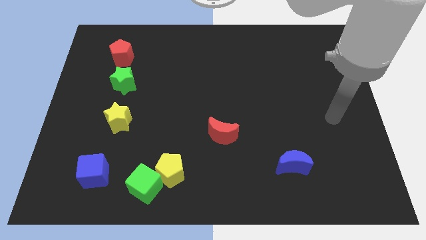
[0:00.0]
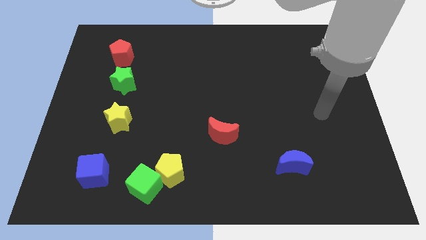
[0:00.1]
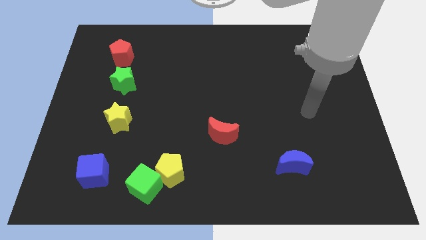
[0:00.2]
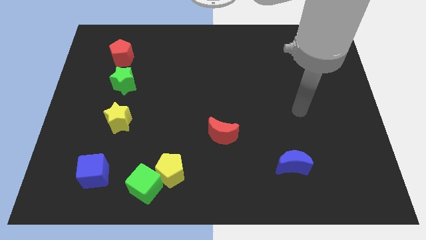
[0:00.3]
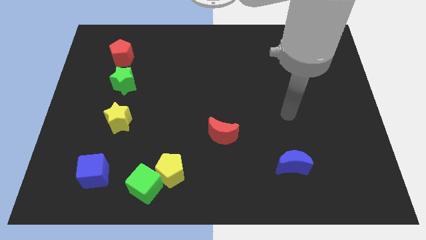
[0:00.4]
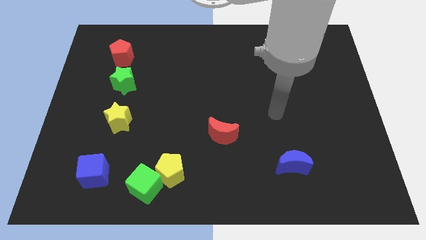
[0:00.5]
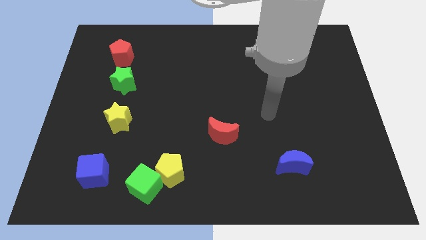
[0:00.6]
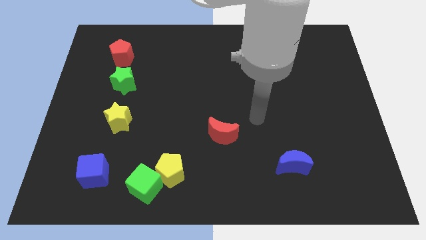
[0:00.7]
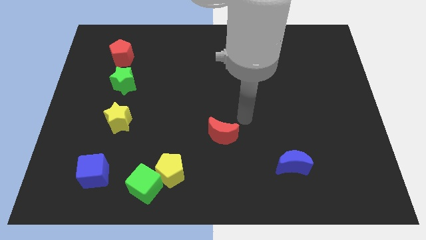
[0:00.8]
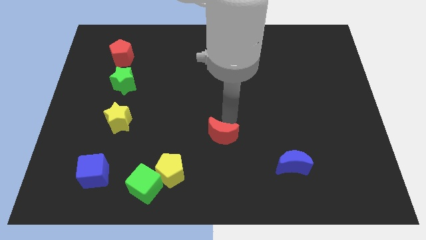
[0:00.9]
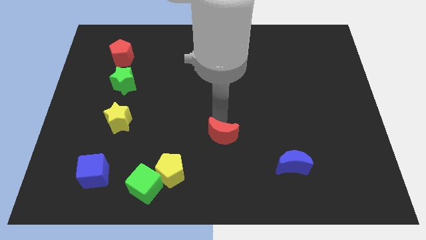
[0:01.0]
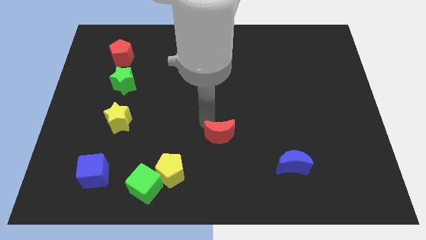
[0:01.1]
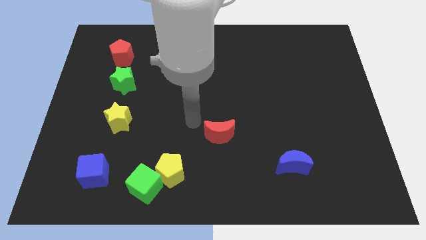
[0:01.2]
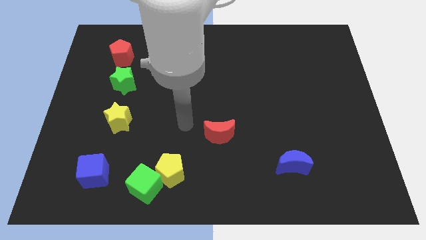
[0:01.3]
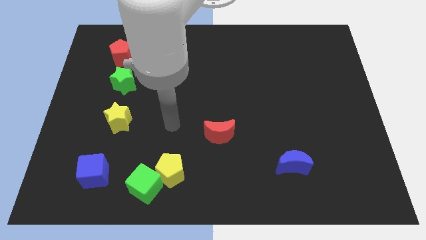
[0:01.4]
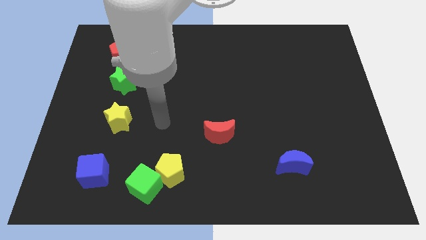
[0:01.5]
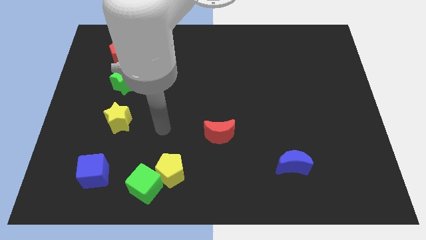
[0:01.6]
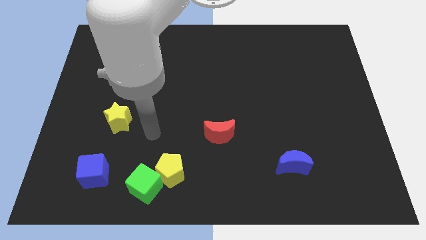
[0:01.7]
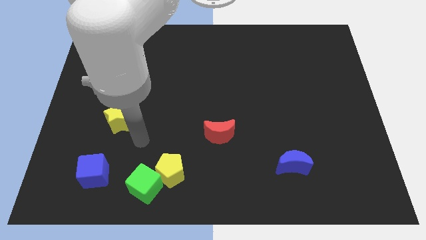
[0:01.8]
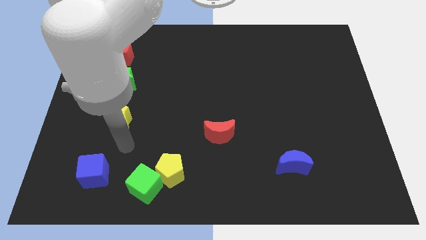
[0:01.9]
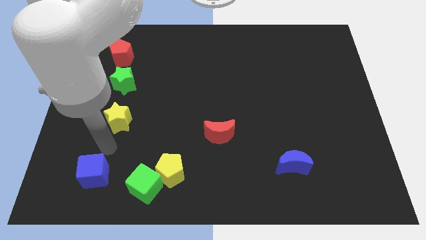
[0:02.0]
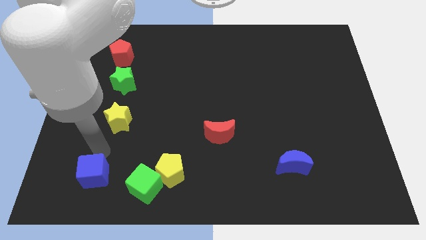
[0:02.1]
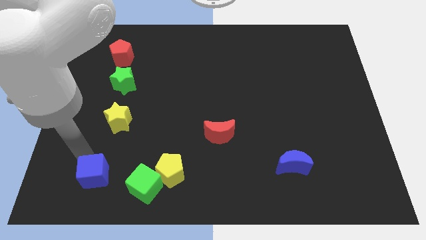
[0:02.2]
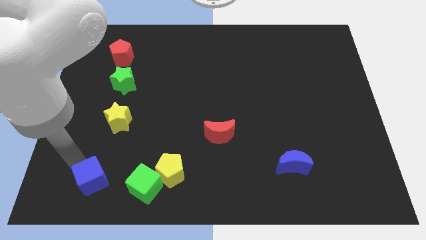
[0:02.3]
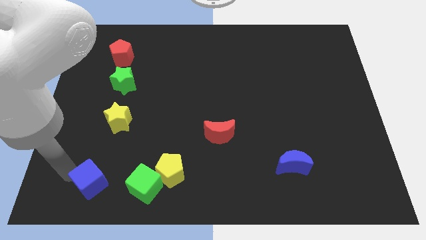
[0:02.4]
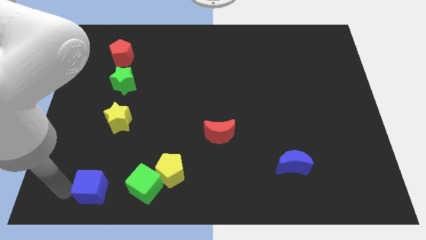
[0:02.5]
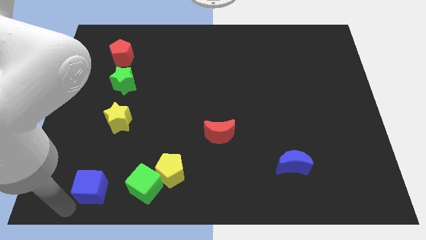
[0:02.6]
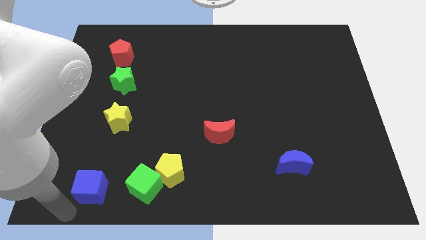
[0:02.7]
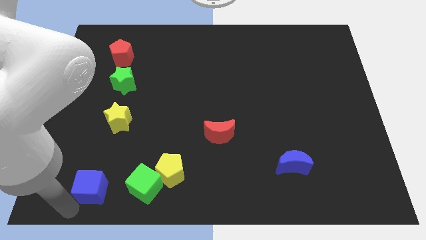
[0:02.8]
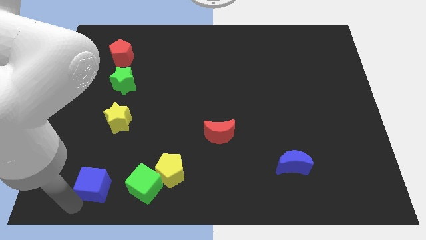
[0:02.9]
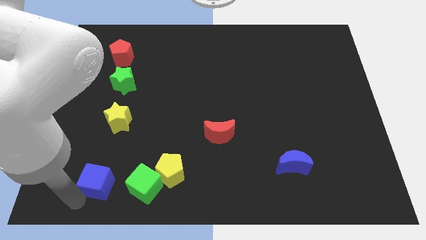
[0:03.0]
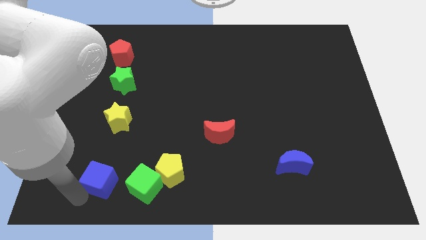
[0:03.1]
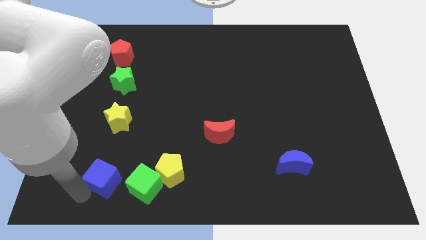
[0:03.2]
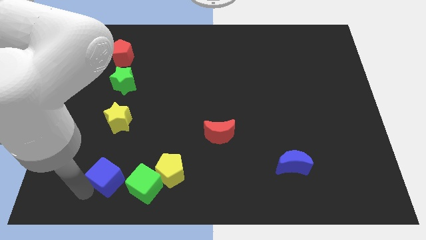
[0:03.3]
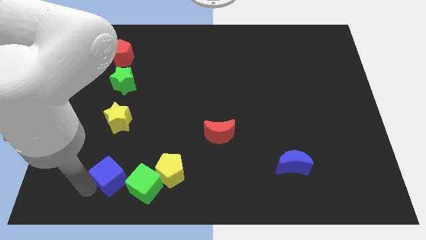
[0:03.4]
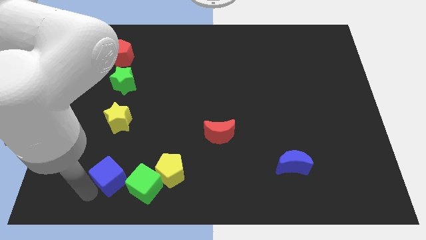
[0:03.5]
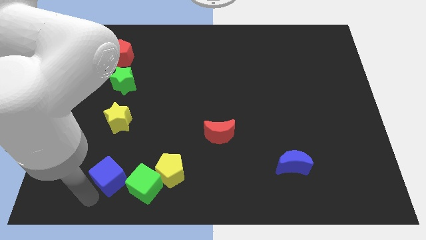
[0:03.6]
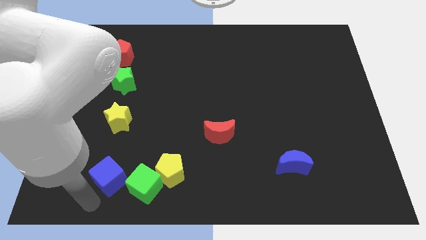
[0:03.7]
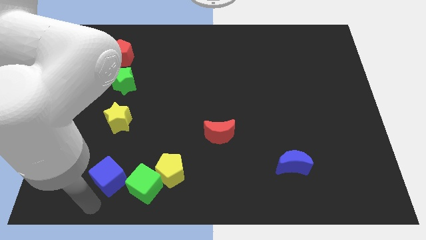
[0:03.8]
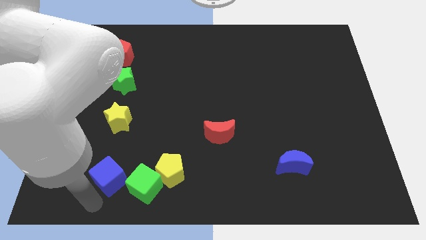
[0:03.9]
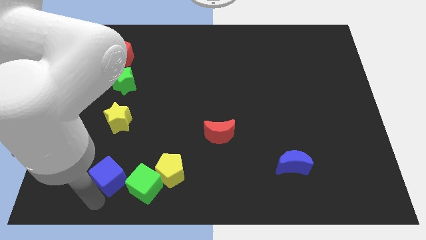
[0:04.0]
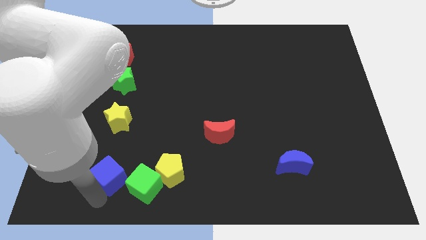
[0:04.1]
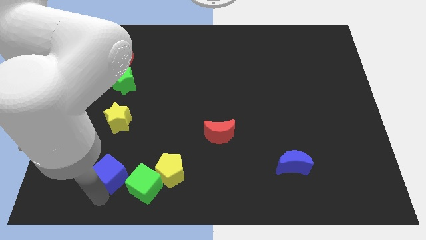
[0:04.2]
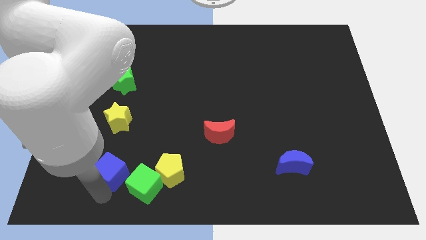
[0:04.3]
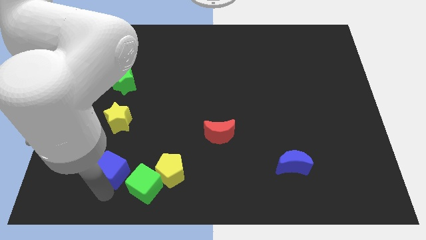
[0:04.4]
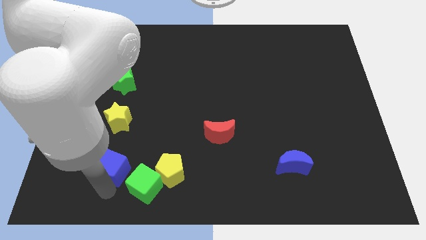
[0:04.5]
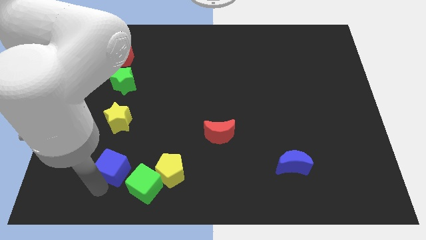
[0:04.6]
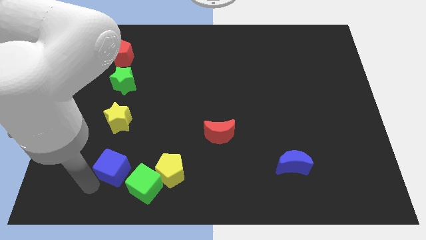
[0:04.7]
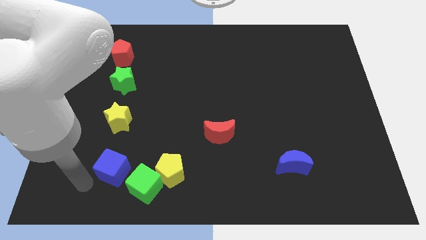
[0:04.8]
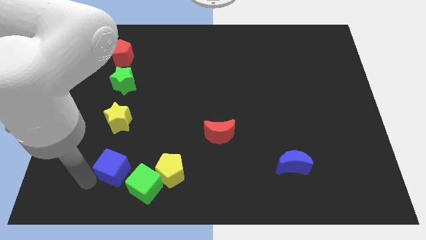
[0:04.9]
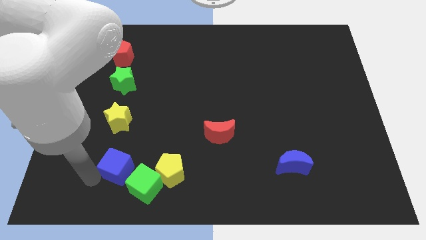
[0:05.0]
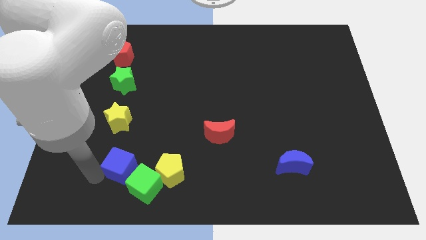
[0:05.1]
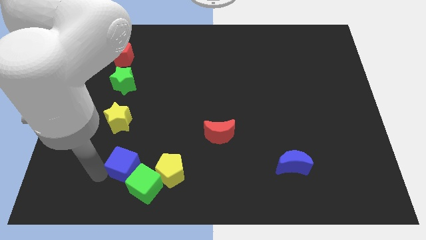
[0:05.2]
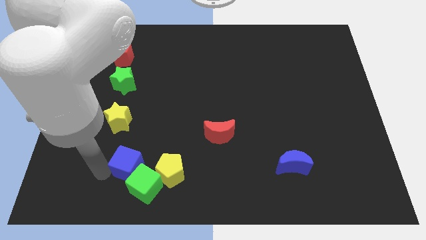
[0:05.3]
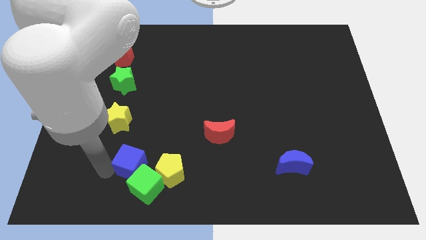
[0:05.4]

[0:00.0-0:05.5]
push the blue cube to the right a little bit

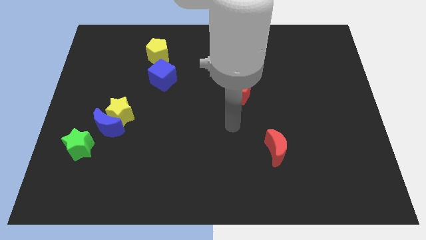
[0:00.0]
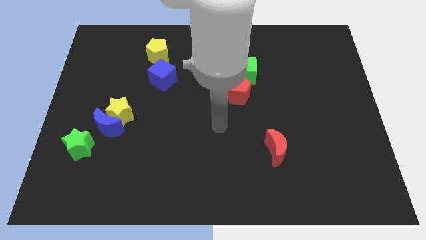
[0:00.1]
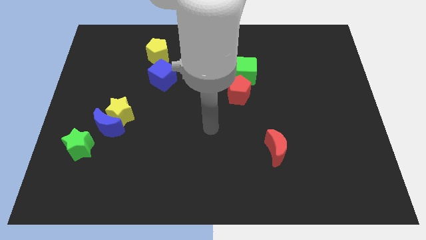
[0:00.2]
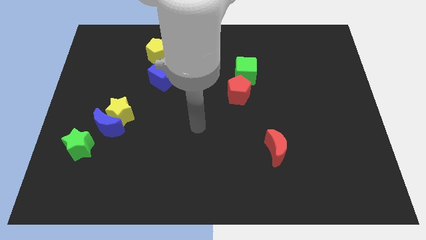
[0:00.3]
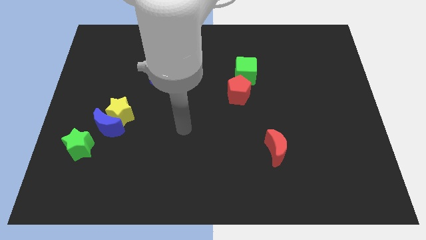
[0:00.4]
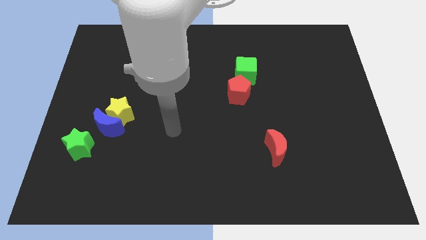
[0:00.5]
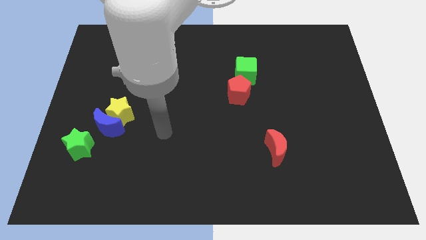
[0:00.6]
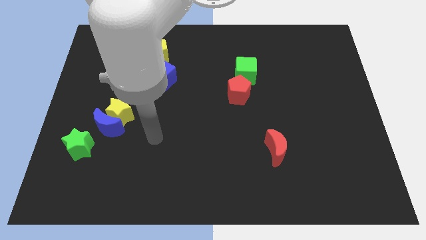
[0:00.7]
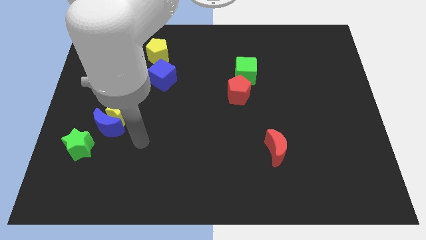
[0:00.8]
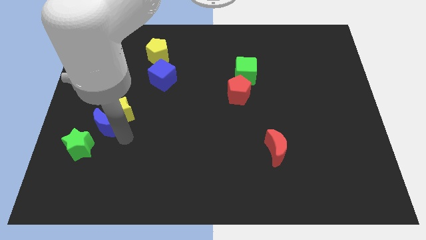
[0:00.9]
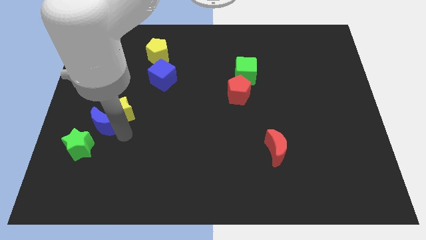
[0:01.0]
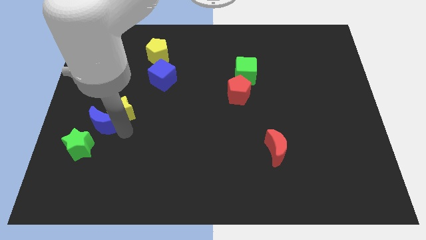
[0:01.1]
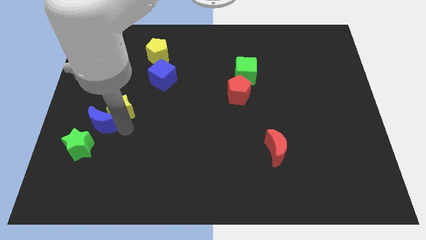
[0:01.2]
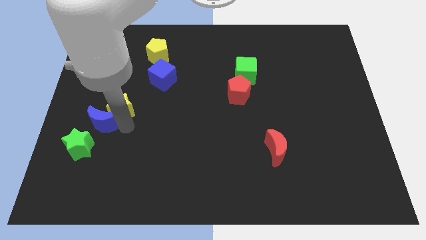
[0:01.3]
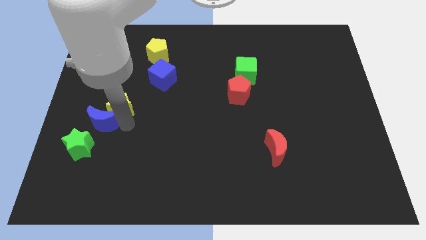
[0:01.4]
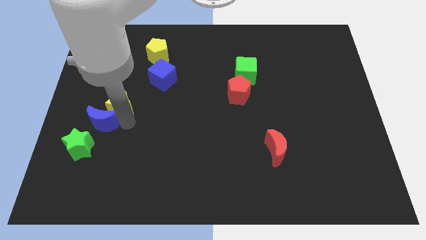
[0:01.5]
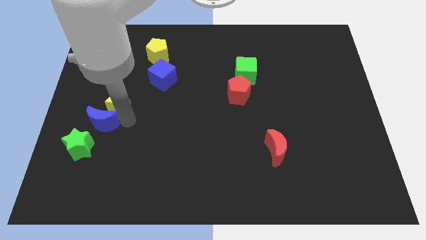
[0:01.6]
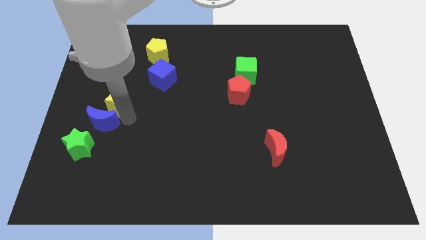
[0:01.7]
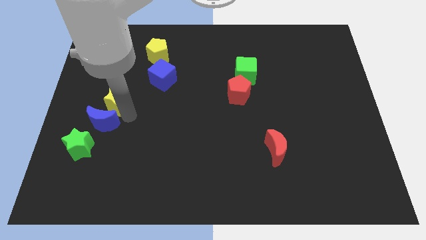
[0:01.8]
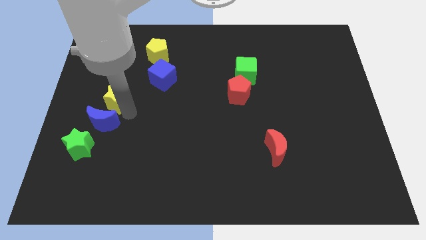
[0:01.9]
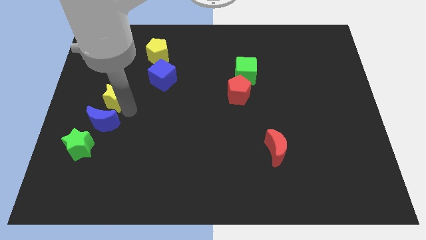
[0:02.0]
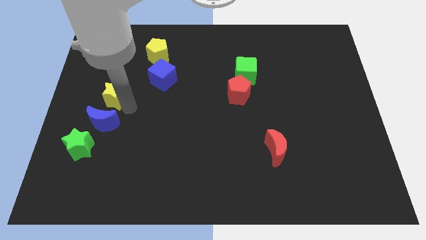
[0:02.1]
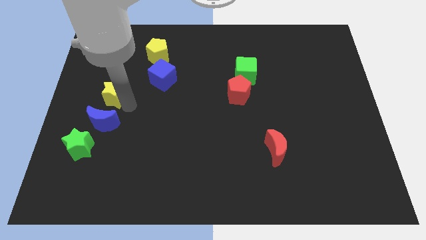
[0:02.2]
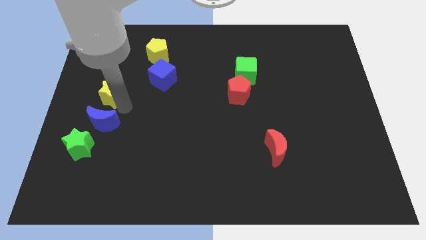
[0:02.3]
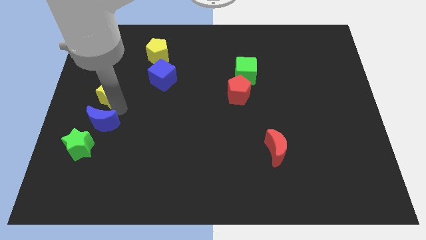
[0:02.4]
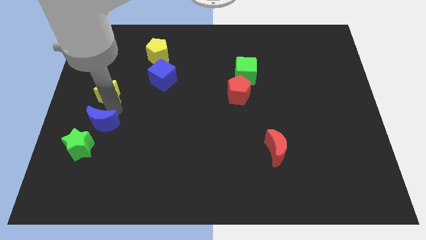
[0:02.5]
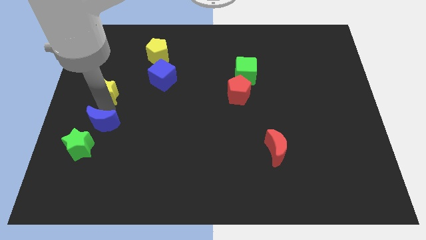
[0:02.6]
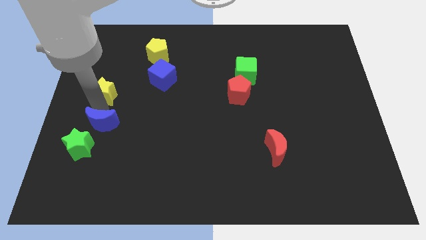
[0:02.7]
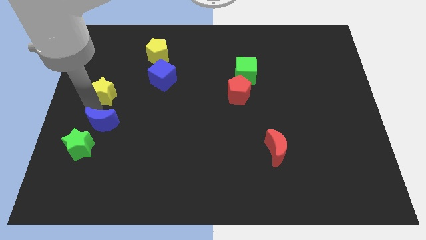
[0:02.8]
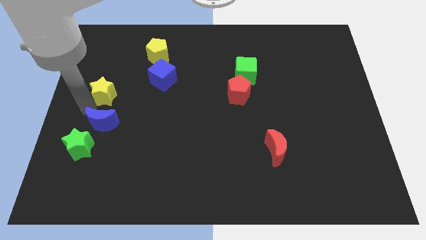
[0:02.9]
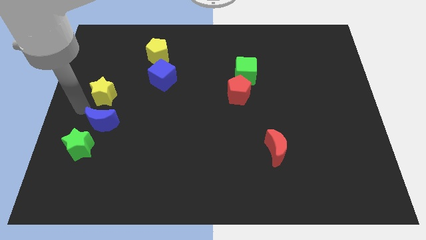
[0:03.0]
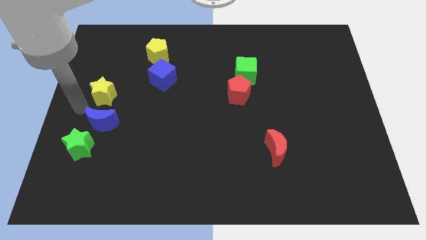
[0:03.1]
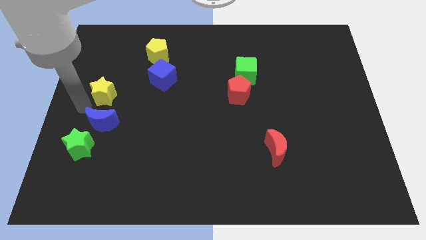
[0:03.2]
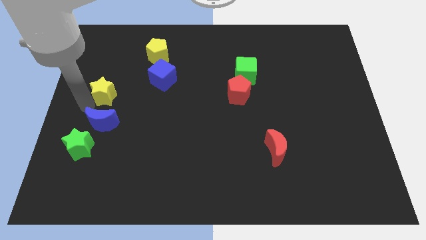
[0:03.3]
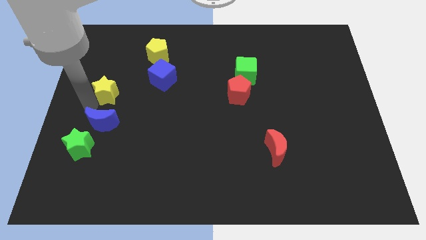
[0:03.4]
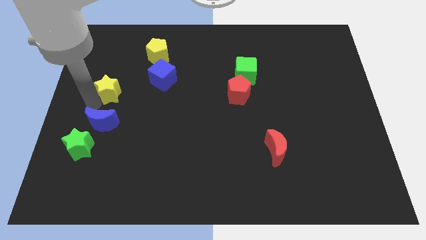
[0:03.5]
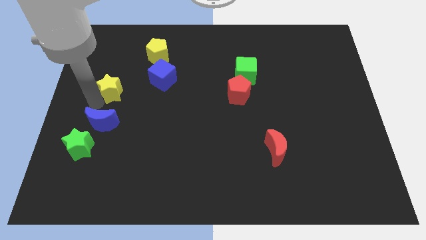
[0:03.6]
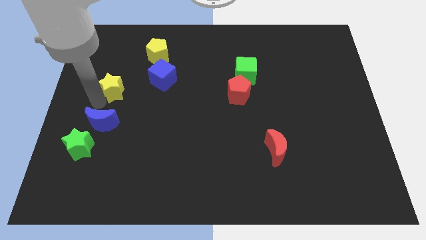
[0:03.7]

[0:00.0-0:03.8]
slightly slide the yellow star upwards
